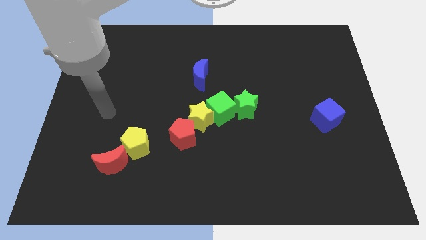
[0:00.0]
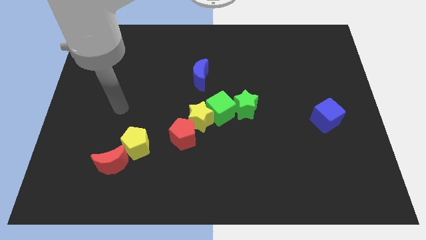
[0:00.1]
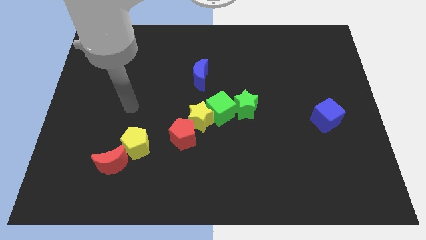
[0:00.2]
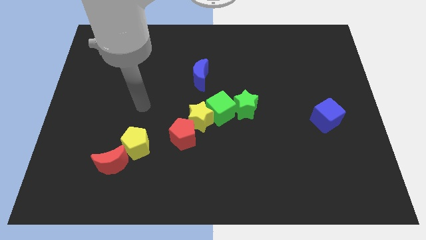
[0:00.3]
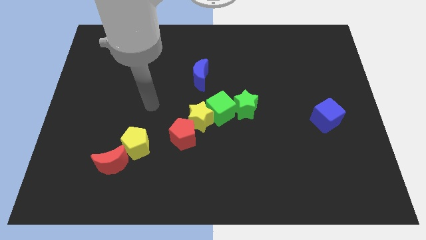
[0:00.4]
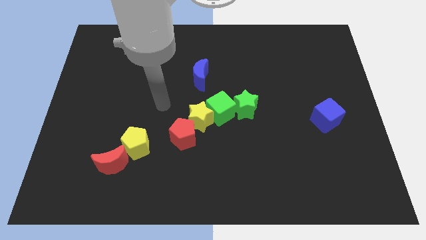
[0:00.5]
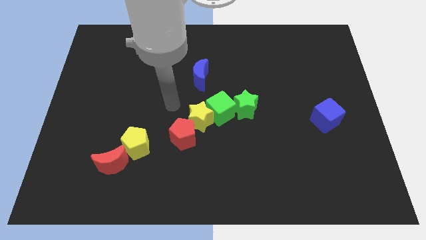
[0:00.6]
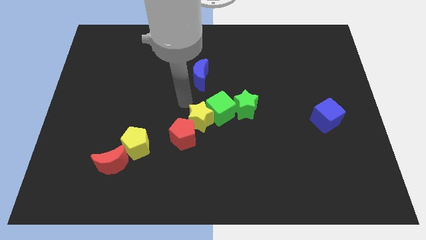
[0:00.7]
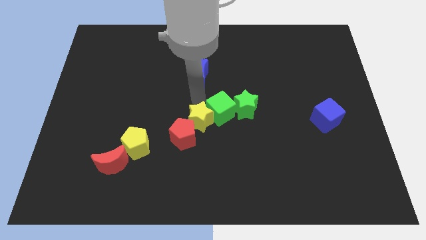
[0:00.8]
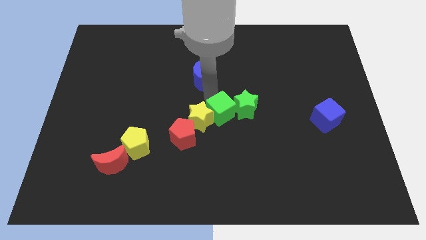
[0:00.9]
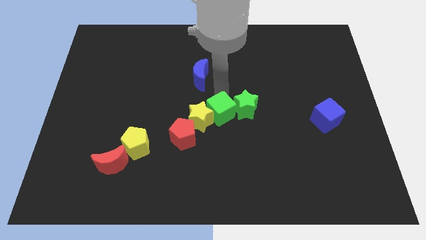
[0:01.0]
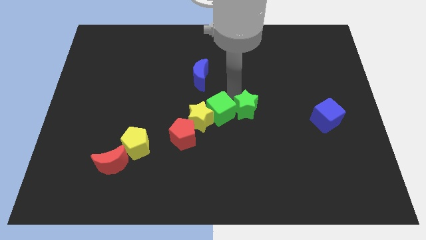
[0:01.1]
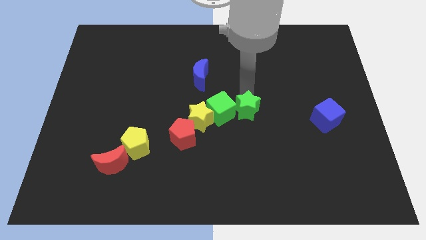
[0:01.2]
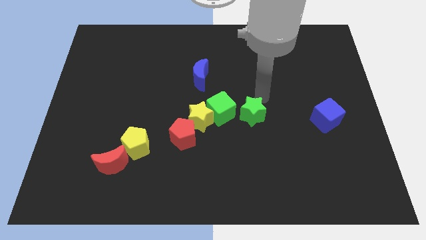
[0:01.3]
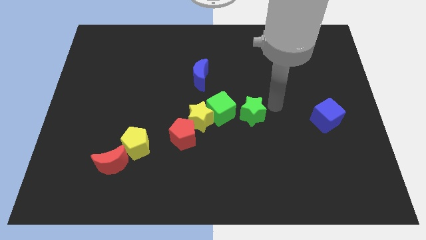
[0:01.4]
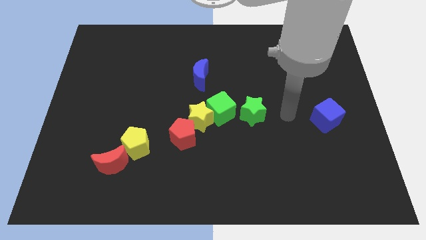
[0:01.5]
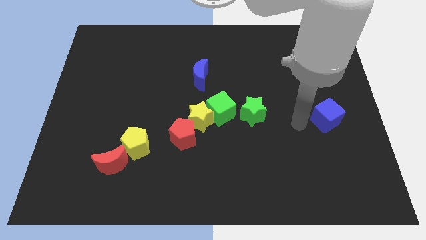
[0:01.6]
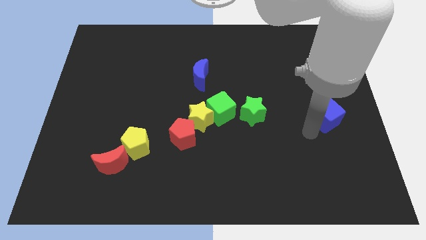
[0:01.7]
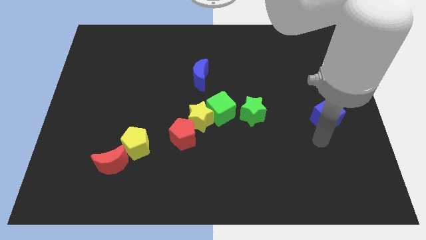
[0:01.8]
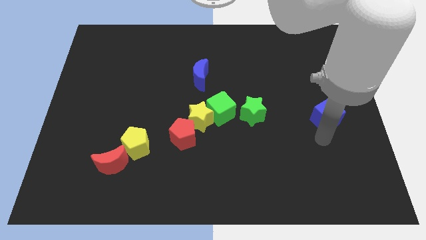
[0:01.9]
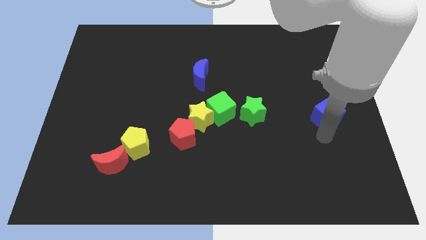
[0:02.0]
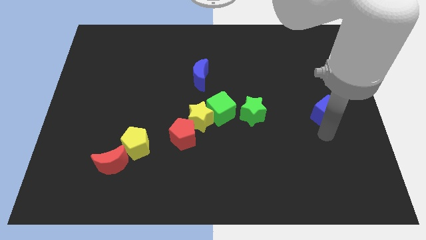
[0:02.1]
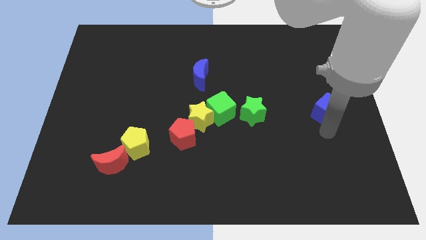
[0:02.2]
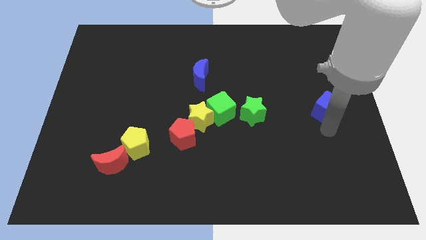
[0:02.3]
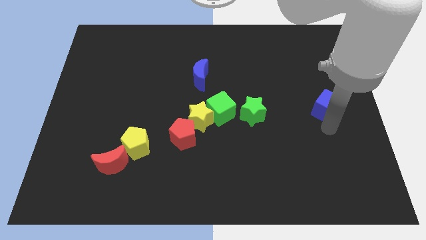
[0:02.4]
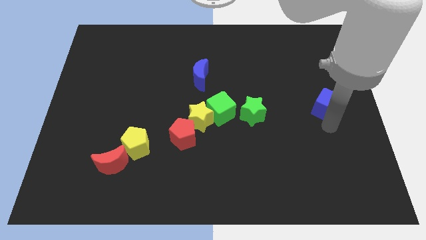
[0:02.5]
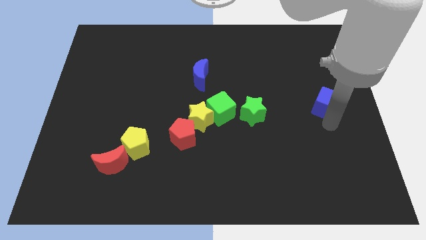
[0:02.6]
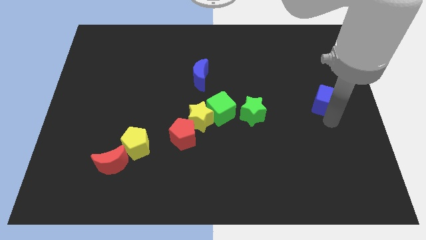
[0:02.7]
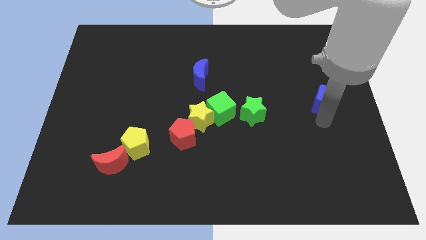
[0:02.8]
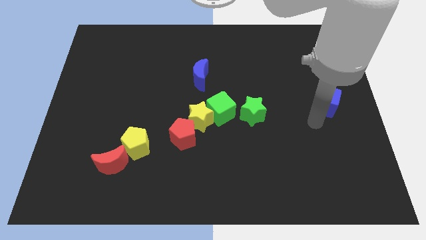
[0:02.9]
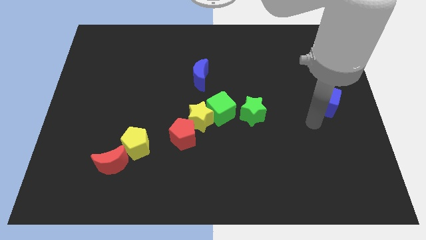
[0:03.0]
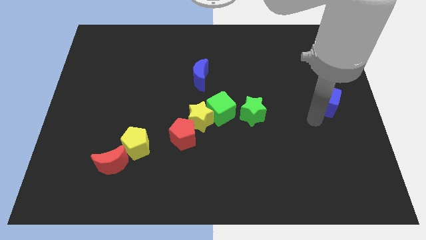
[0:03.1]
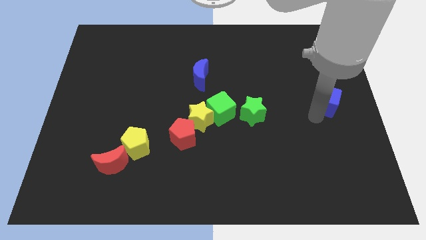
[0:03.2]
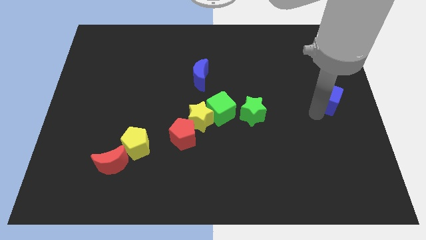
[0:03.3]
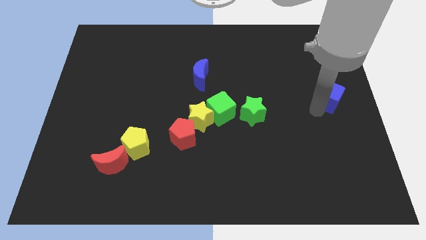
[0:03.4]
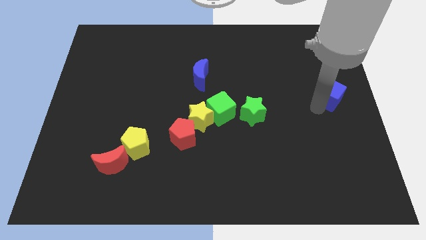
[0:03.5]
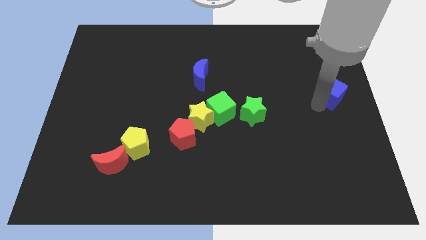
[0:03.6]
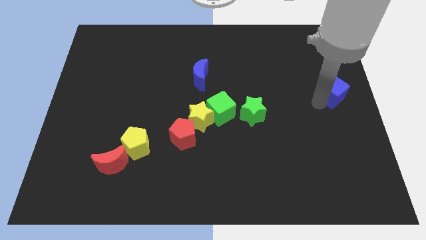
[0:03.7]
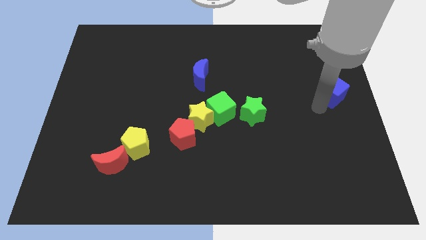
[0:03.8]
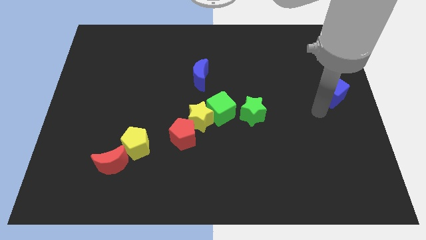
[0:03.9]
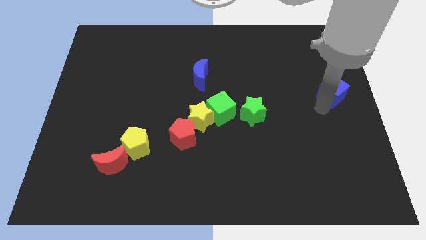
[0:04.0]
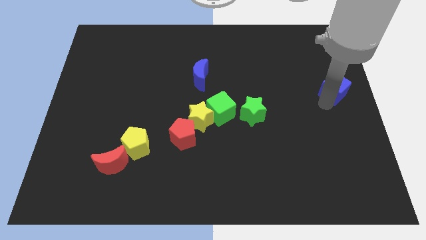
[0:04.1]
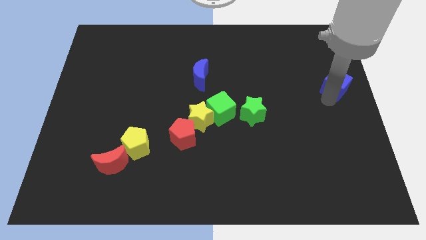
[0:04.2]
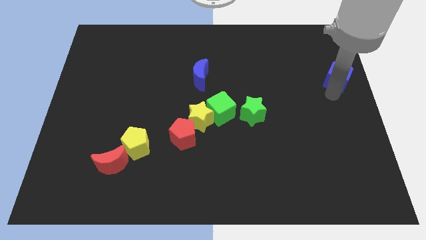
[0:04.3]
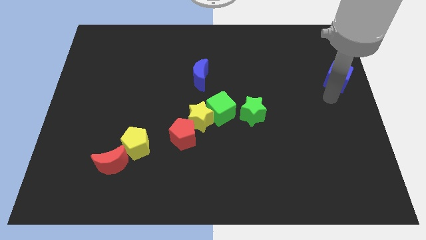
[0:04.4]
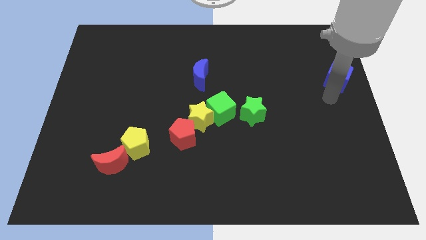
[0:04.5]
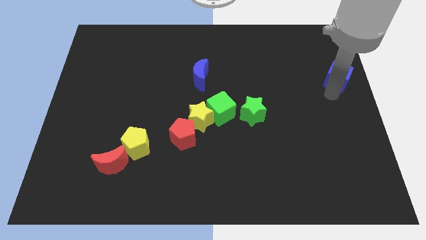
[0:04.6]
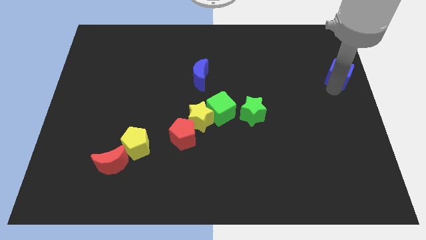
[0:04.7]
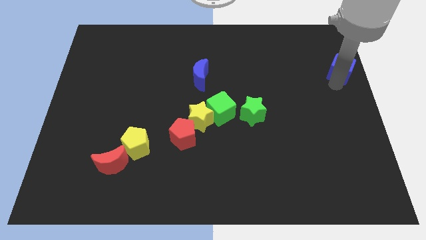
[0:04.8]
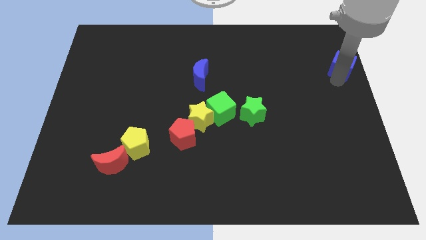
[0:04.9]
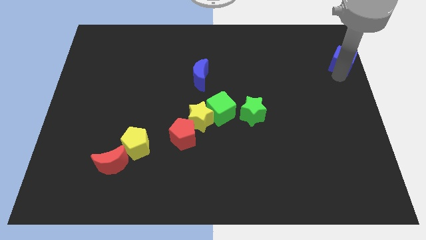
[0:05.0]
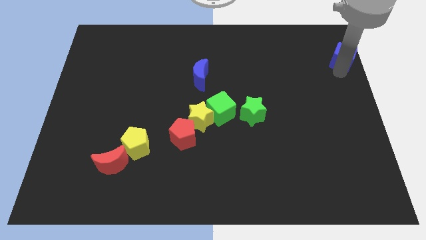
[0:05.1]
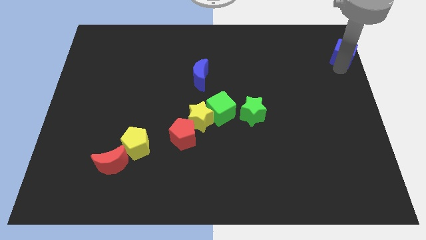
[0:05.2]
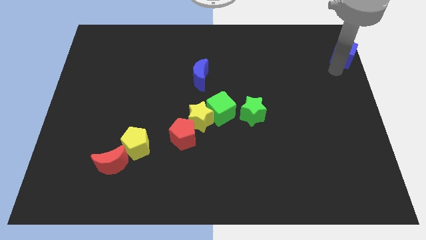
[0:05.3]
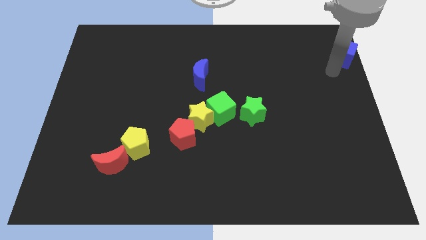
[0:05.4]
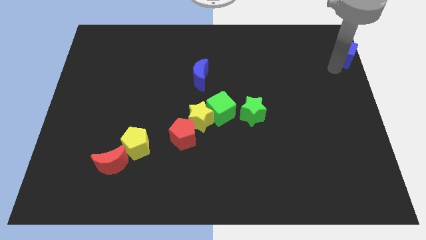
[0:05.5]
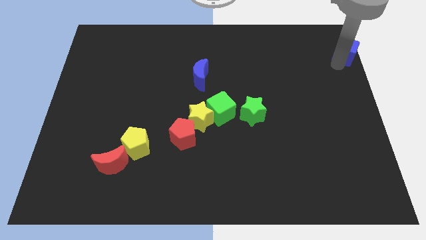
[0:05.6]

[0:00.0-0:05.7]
slide the blue cube to the top right

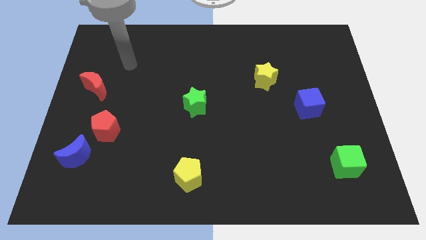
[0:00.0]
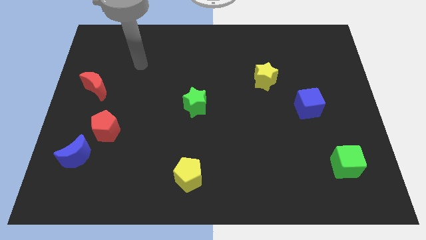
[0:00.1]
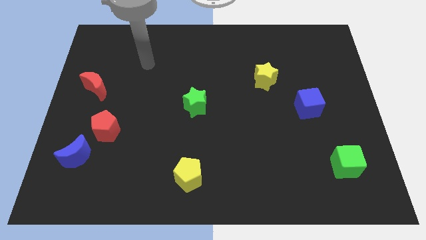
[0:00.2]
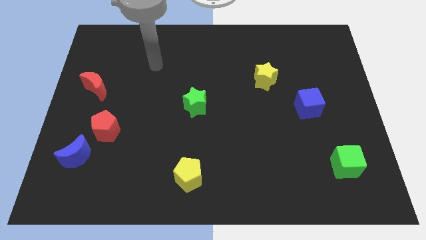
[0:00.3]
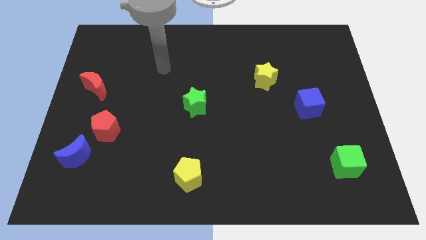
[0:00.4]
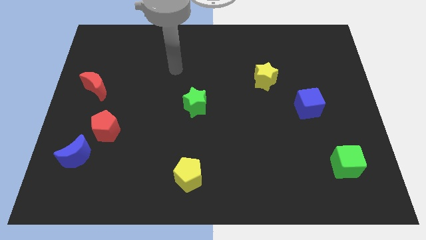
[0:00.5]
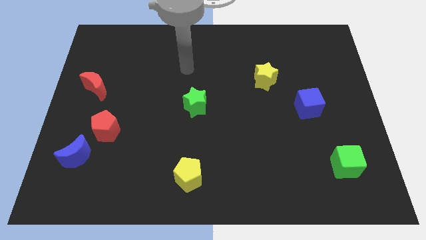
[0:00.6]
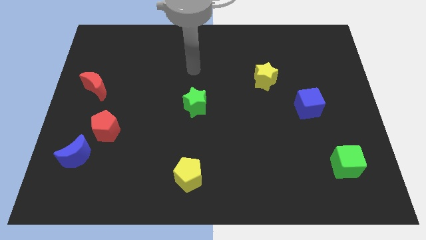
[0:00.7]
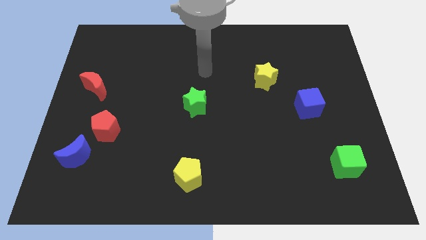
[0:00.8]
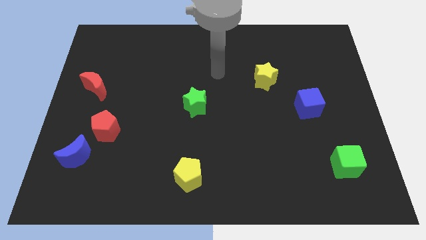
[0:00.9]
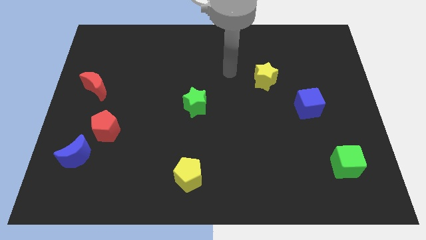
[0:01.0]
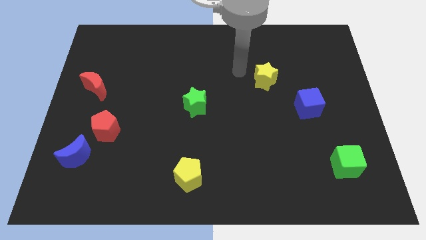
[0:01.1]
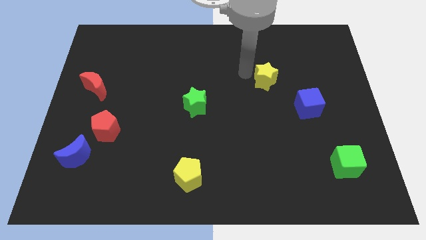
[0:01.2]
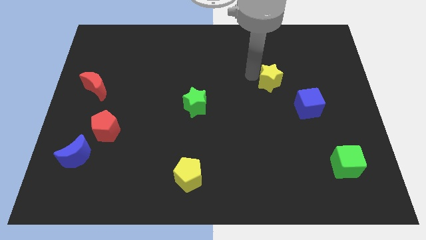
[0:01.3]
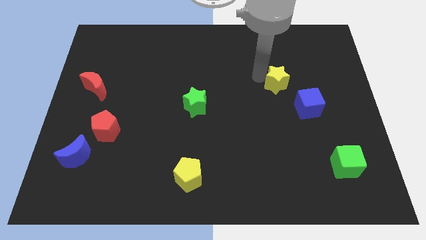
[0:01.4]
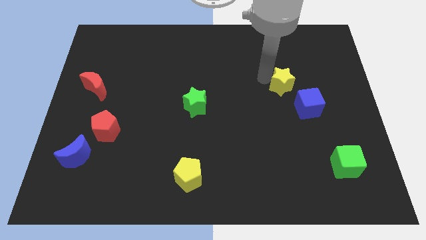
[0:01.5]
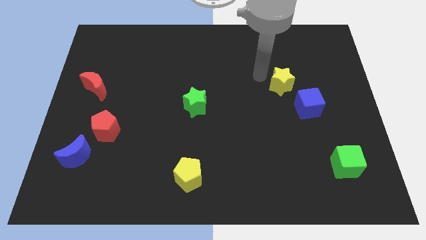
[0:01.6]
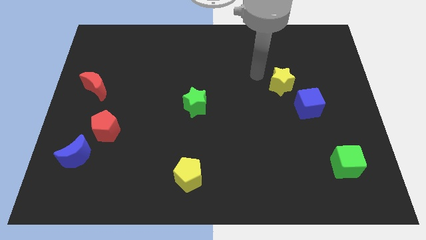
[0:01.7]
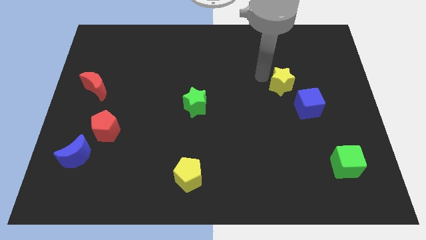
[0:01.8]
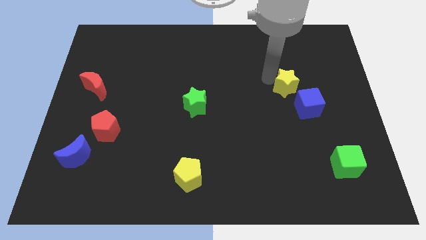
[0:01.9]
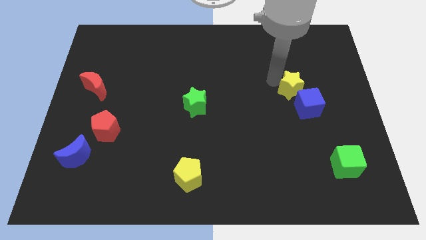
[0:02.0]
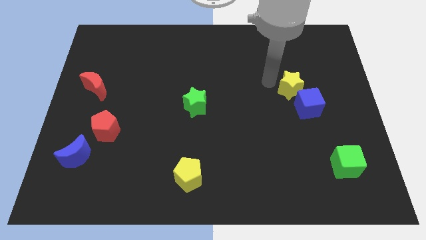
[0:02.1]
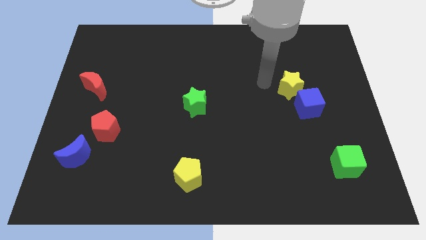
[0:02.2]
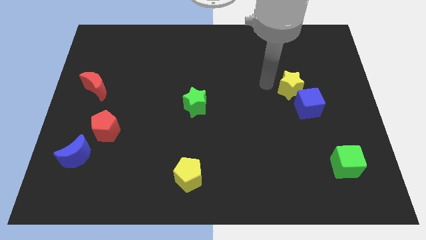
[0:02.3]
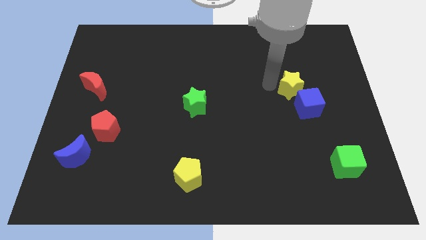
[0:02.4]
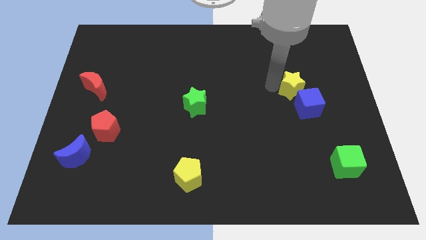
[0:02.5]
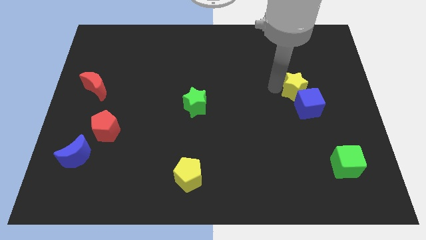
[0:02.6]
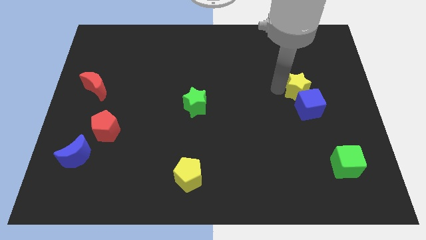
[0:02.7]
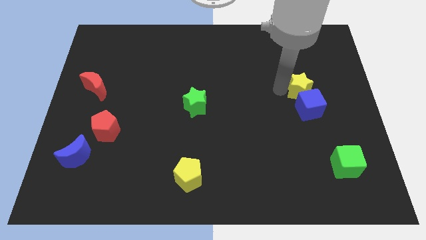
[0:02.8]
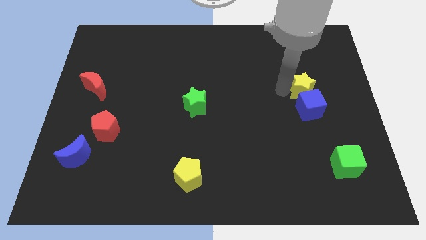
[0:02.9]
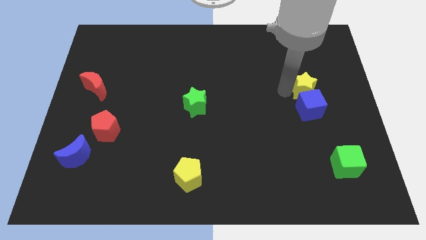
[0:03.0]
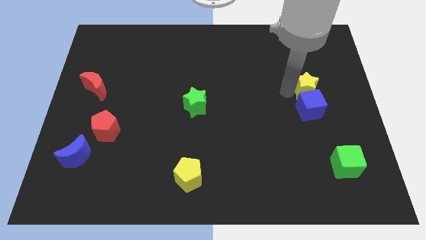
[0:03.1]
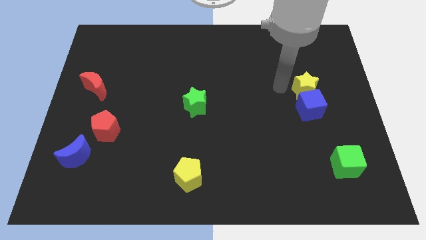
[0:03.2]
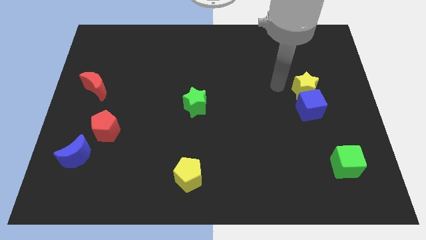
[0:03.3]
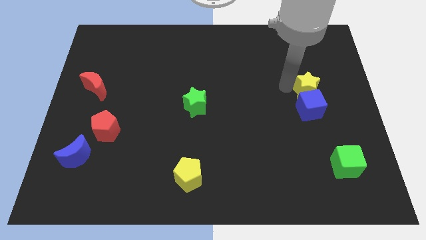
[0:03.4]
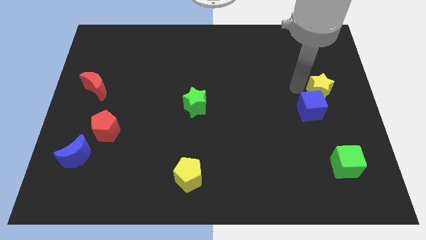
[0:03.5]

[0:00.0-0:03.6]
slide the yellow star to the right side of the board
